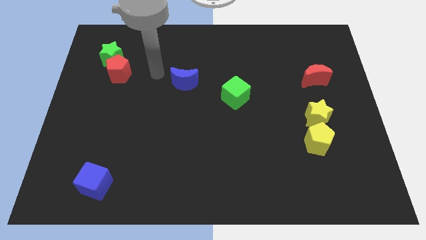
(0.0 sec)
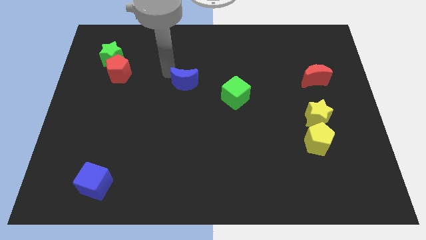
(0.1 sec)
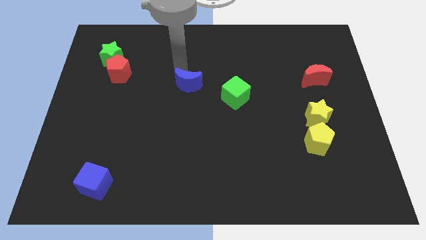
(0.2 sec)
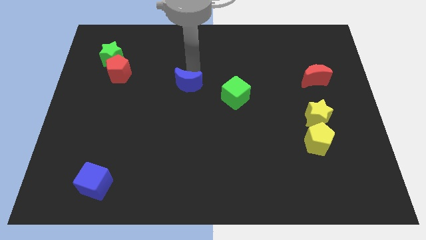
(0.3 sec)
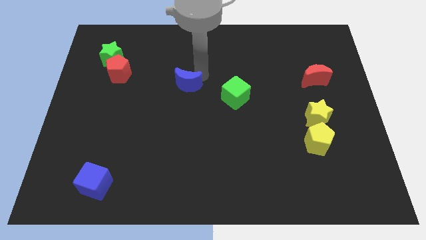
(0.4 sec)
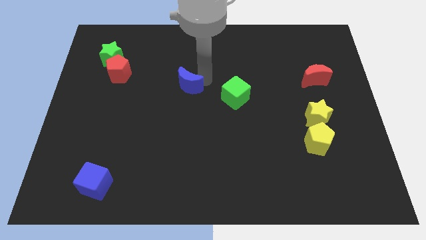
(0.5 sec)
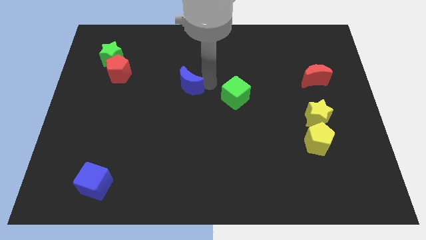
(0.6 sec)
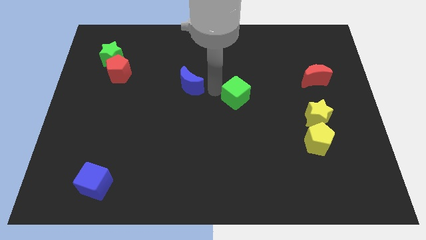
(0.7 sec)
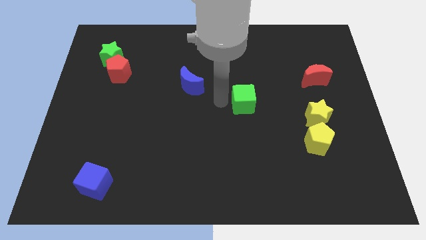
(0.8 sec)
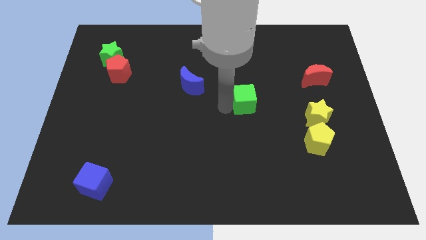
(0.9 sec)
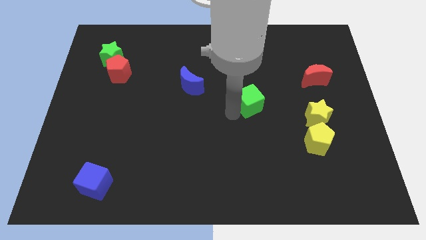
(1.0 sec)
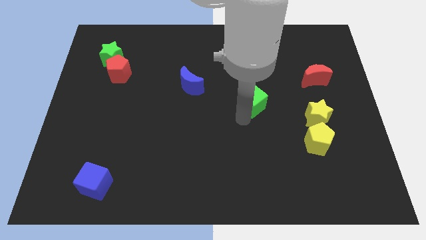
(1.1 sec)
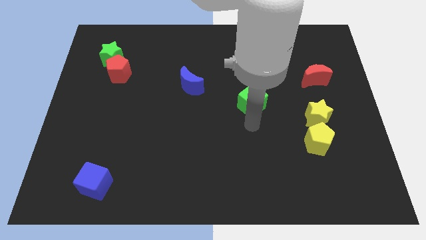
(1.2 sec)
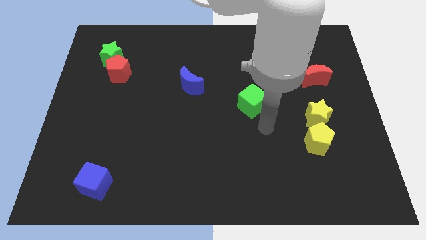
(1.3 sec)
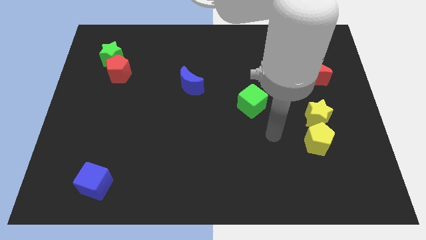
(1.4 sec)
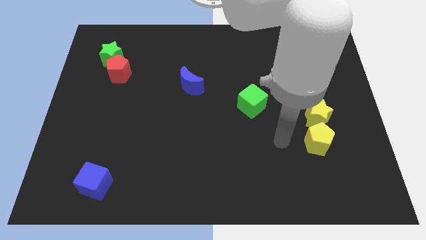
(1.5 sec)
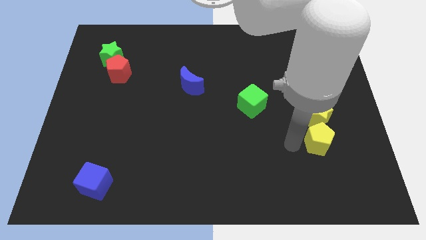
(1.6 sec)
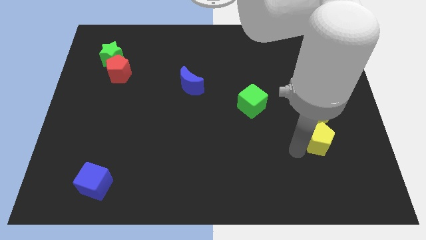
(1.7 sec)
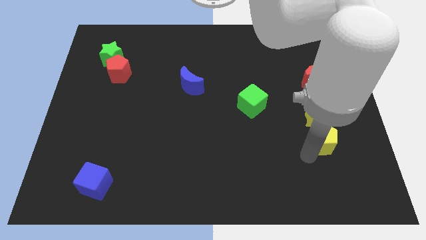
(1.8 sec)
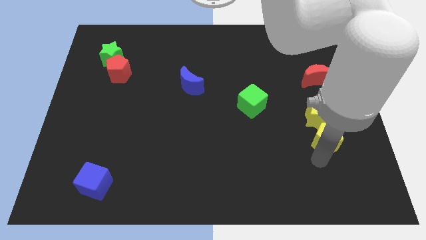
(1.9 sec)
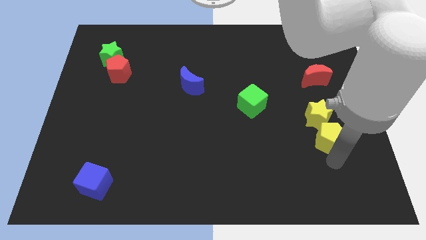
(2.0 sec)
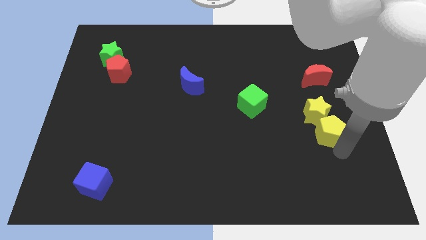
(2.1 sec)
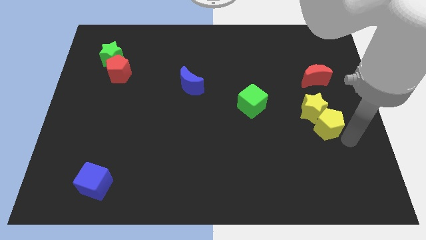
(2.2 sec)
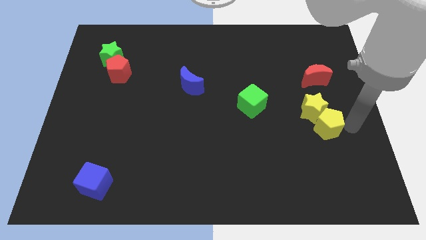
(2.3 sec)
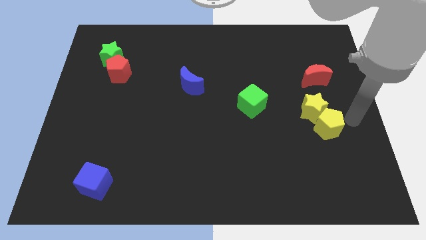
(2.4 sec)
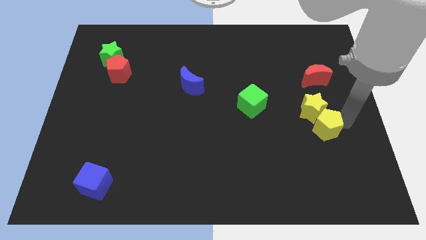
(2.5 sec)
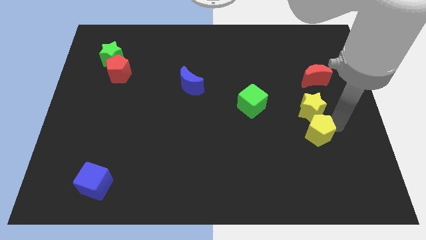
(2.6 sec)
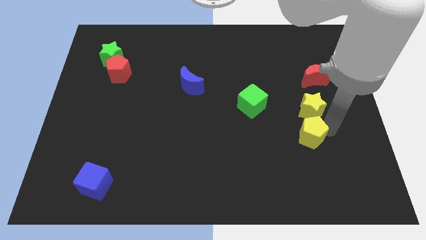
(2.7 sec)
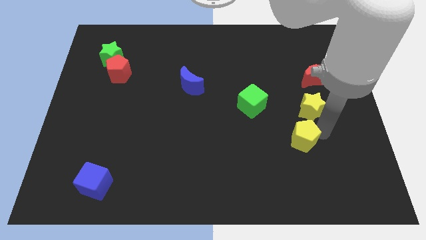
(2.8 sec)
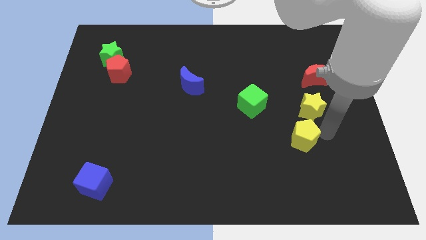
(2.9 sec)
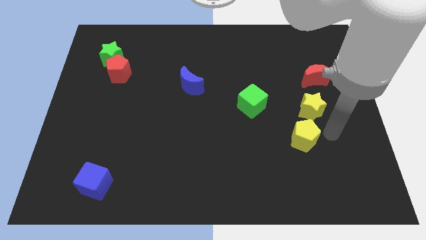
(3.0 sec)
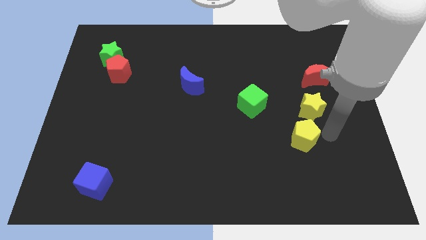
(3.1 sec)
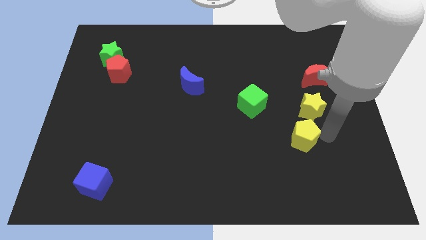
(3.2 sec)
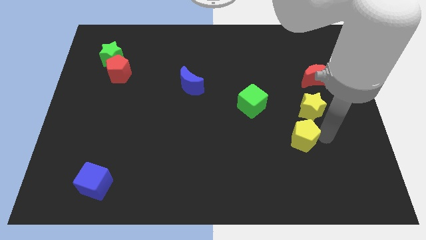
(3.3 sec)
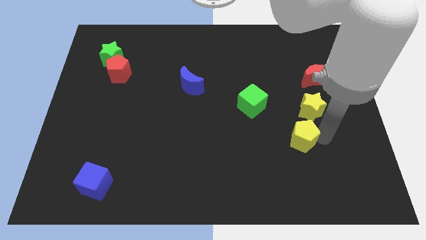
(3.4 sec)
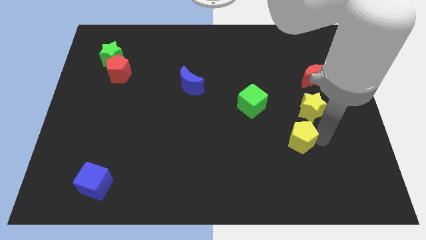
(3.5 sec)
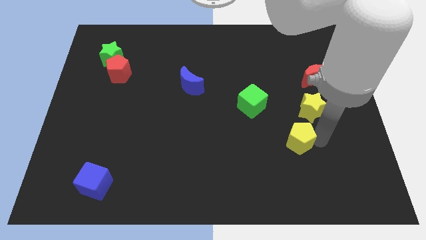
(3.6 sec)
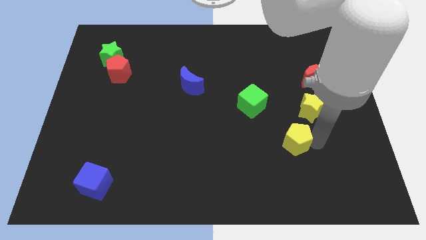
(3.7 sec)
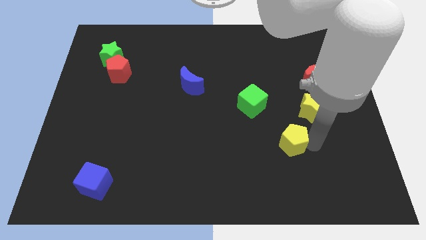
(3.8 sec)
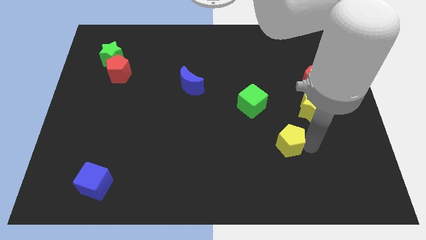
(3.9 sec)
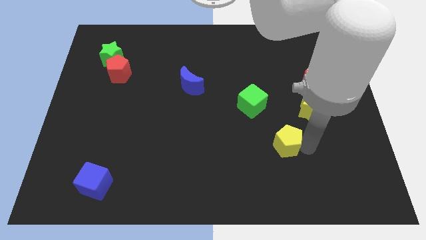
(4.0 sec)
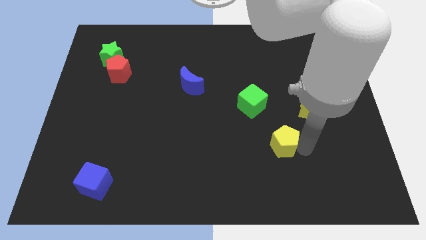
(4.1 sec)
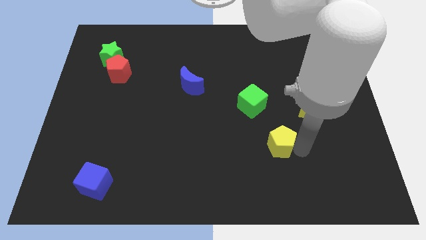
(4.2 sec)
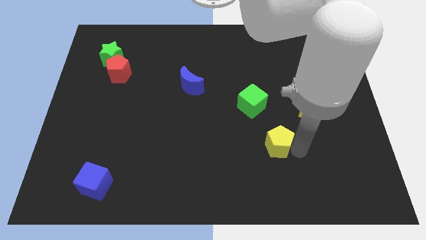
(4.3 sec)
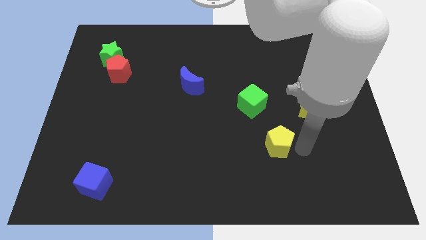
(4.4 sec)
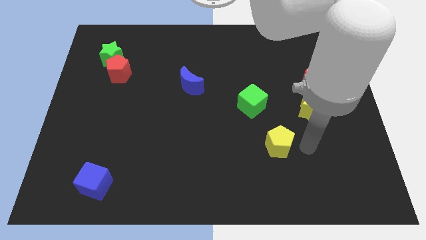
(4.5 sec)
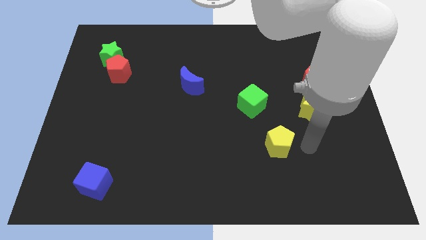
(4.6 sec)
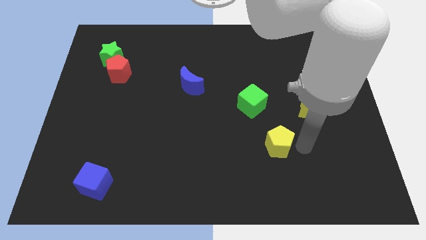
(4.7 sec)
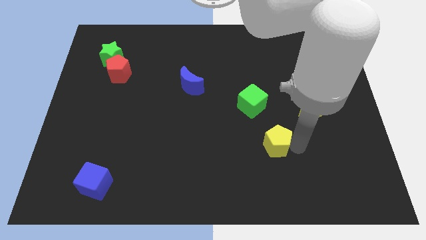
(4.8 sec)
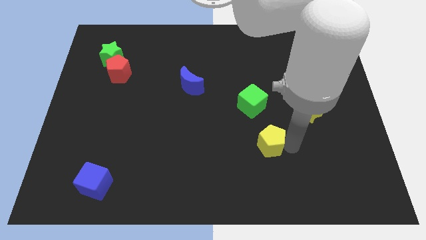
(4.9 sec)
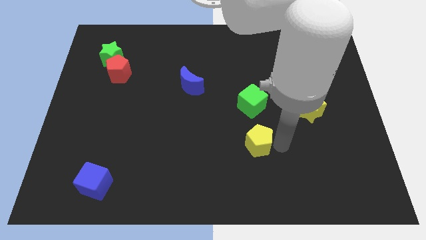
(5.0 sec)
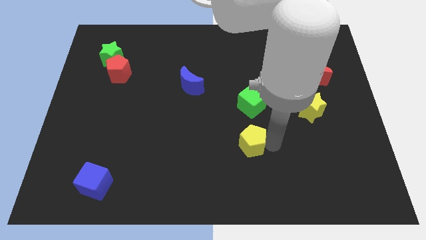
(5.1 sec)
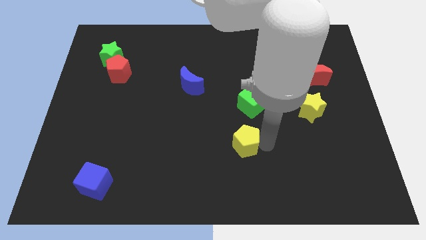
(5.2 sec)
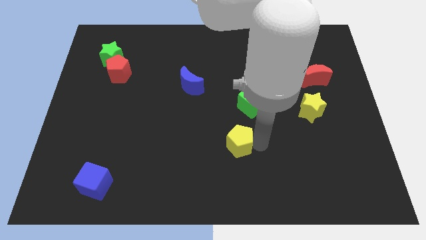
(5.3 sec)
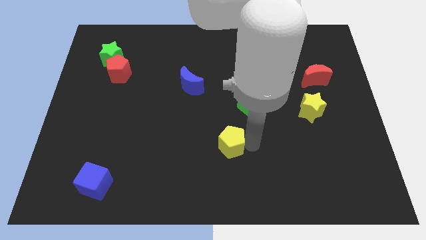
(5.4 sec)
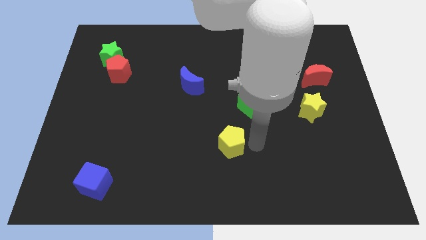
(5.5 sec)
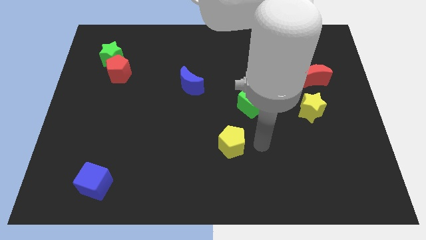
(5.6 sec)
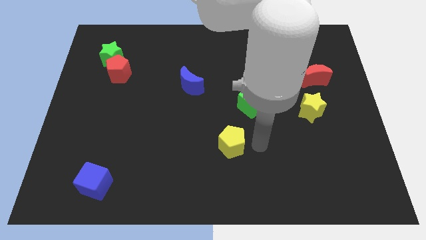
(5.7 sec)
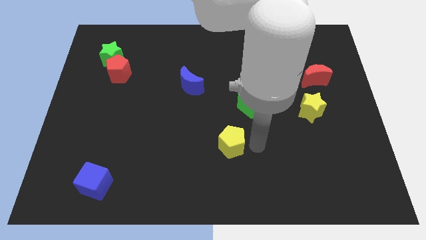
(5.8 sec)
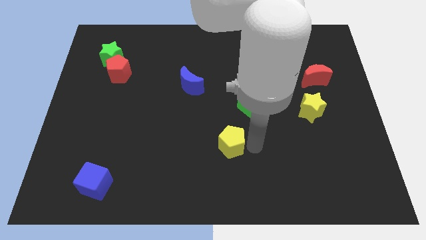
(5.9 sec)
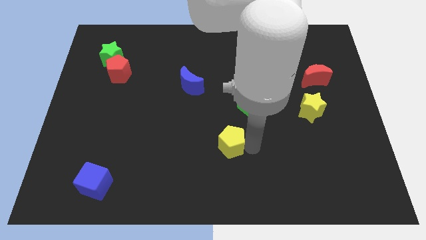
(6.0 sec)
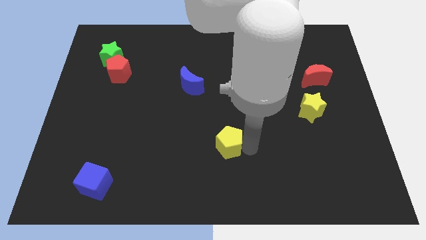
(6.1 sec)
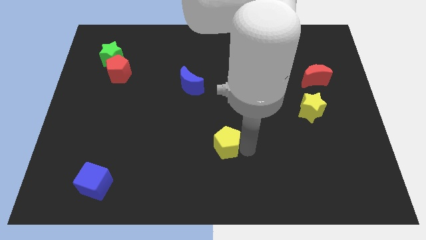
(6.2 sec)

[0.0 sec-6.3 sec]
slide the yellow pentagon to the left

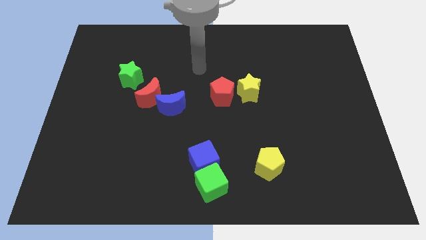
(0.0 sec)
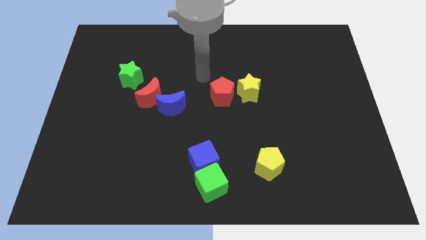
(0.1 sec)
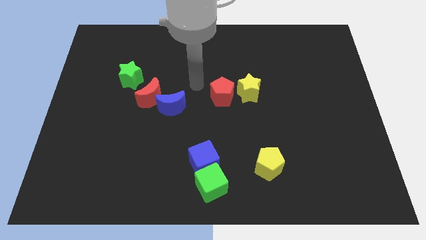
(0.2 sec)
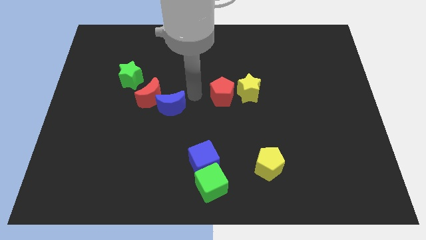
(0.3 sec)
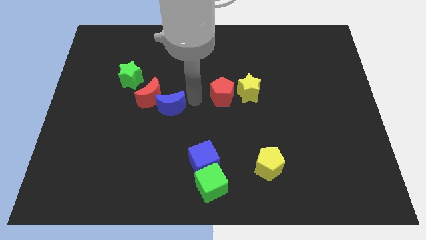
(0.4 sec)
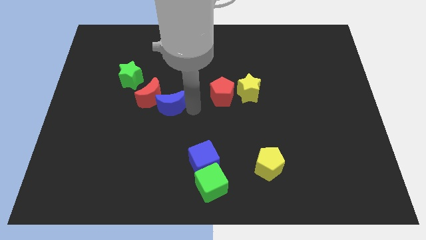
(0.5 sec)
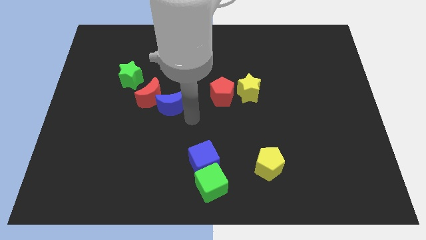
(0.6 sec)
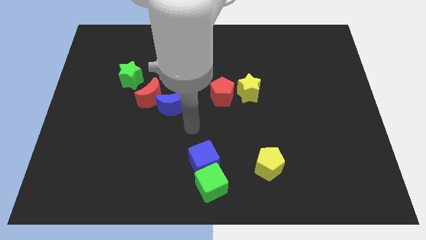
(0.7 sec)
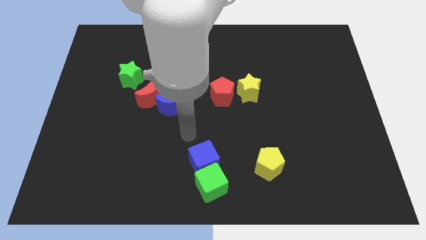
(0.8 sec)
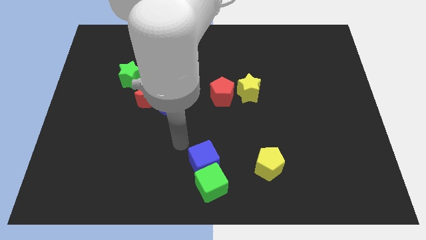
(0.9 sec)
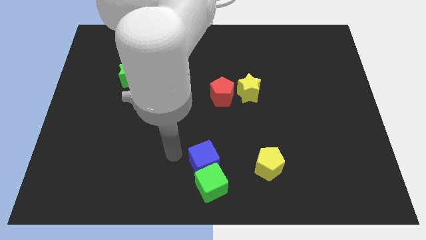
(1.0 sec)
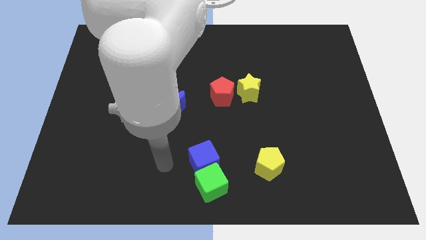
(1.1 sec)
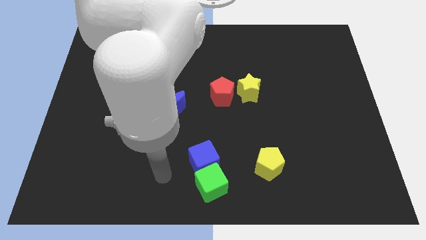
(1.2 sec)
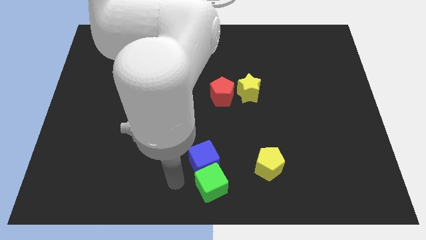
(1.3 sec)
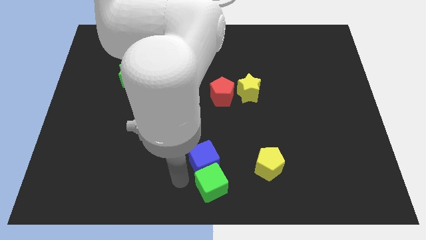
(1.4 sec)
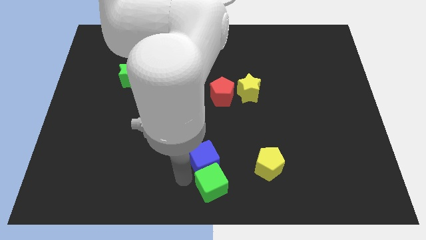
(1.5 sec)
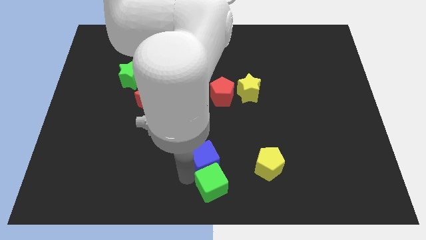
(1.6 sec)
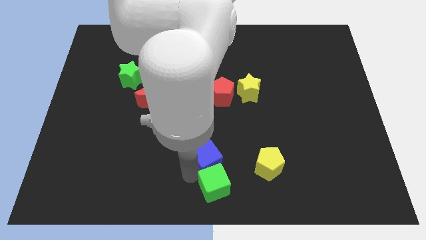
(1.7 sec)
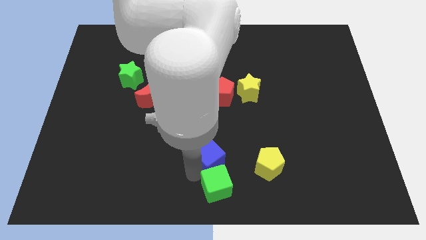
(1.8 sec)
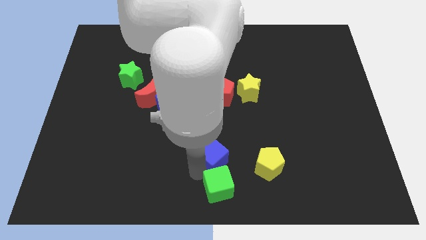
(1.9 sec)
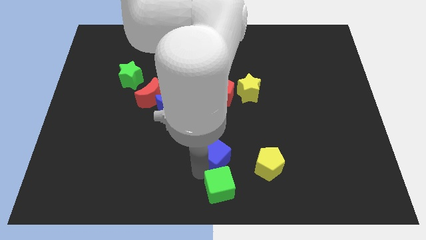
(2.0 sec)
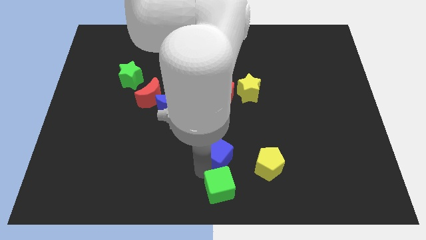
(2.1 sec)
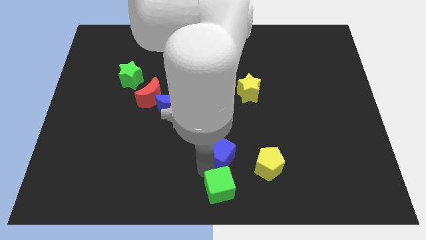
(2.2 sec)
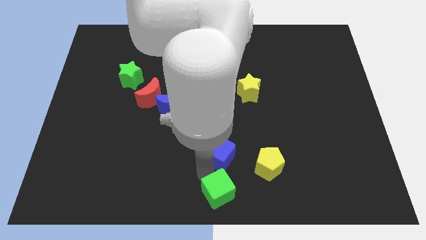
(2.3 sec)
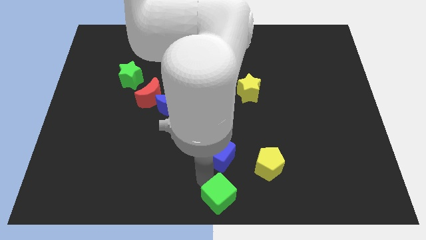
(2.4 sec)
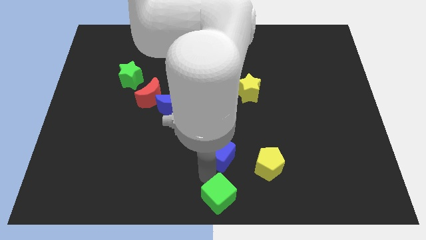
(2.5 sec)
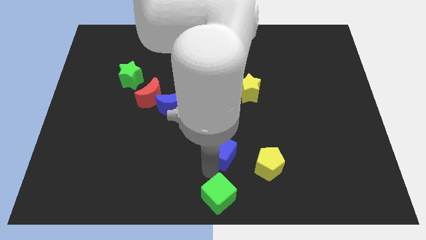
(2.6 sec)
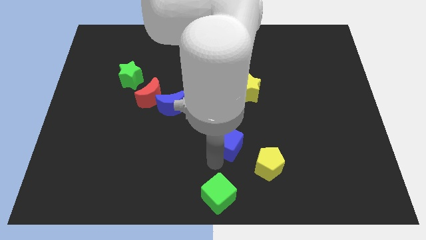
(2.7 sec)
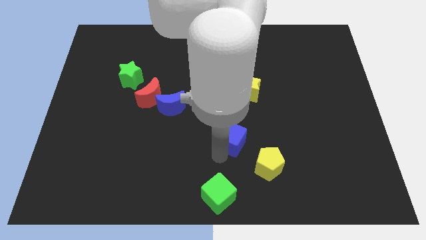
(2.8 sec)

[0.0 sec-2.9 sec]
push the blue cube upwards and right diagonally somewhat
